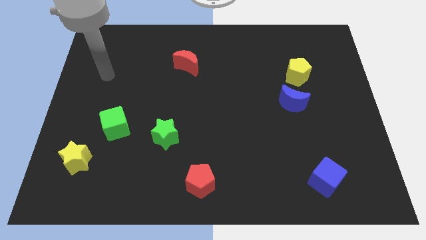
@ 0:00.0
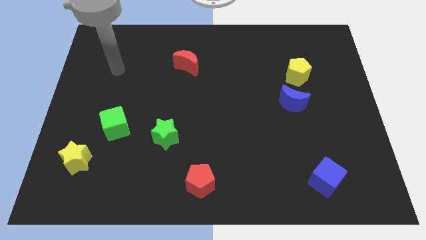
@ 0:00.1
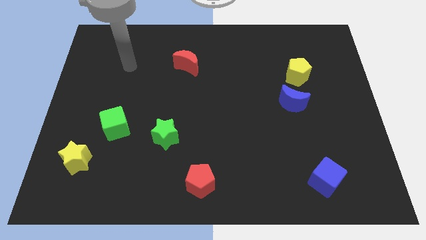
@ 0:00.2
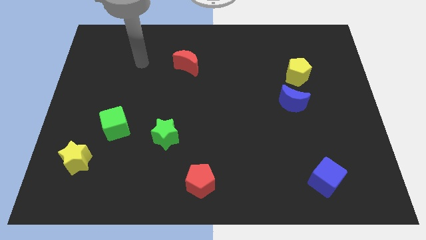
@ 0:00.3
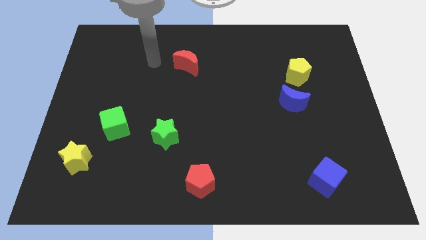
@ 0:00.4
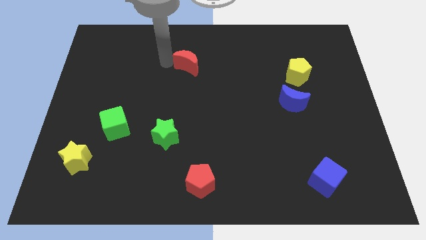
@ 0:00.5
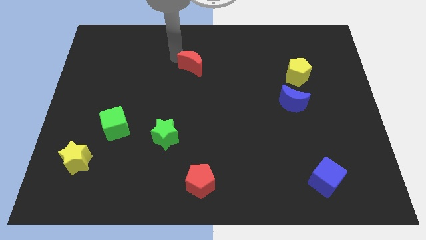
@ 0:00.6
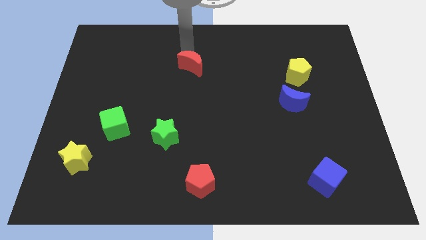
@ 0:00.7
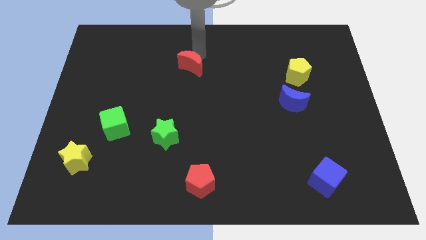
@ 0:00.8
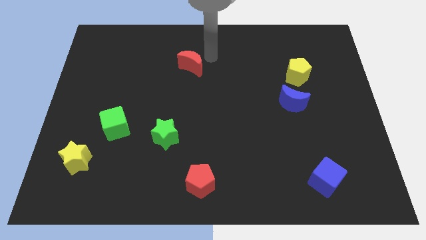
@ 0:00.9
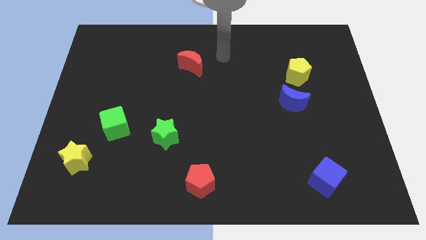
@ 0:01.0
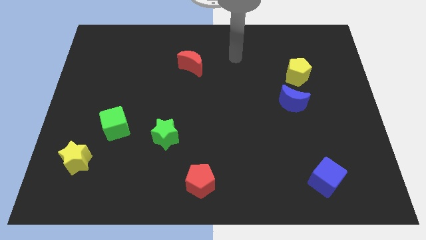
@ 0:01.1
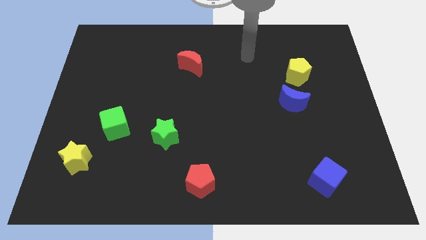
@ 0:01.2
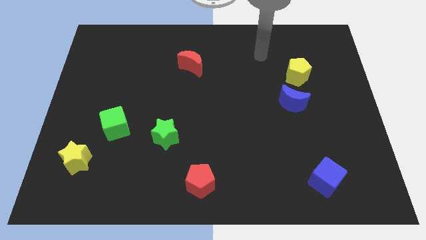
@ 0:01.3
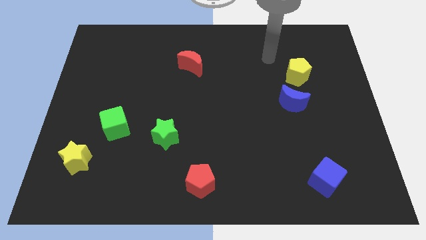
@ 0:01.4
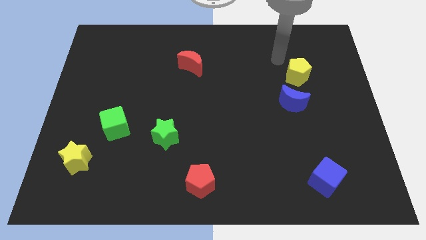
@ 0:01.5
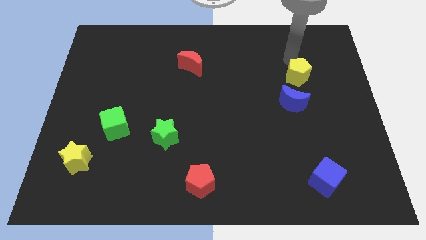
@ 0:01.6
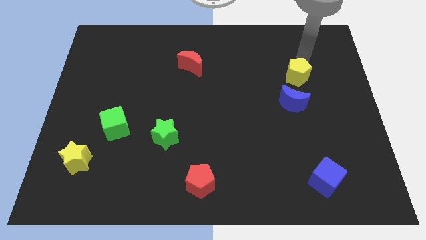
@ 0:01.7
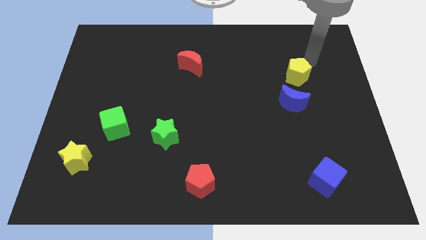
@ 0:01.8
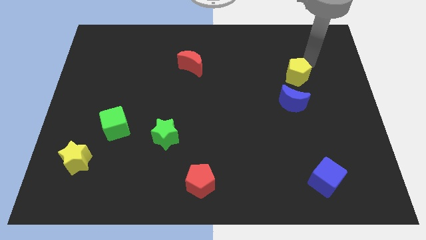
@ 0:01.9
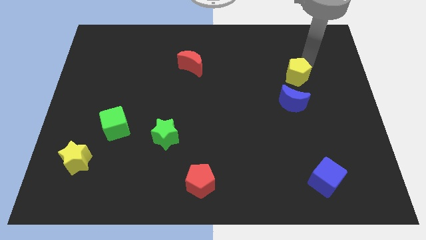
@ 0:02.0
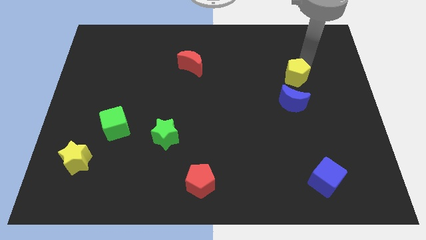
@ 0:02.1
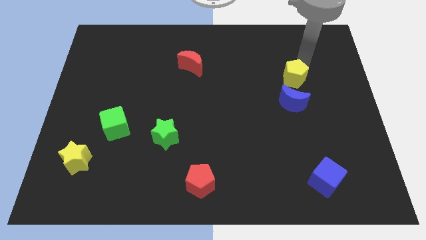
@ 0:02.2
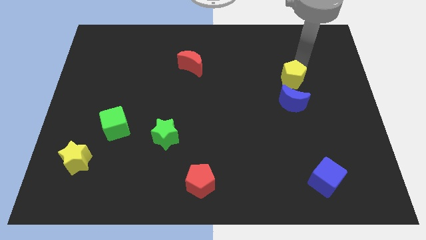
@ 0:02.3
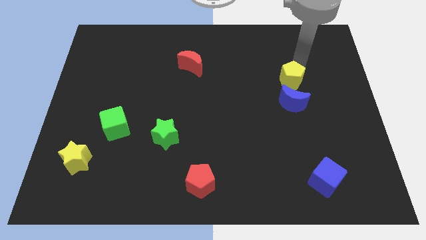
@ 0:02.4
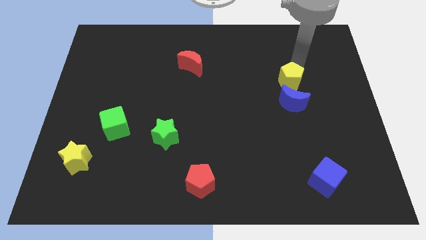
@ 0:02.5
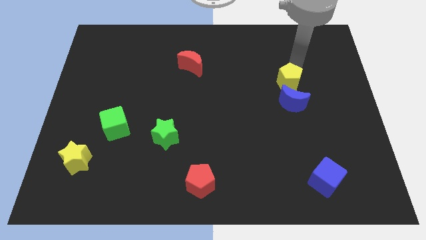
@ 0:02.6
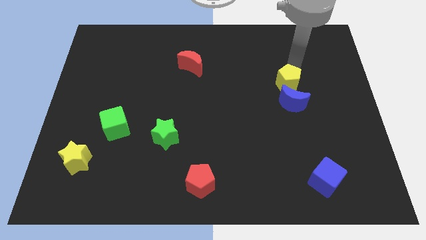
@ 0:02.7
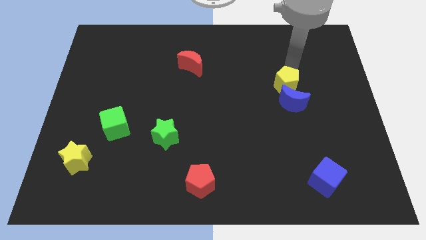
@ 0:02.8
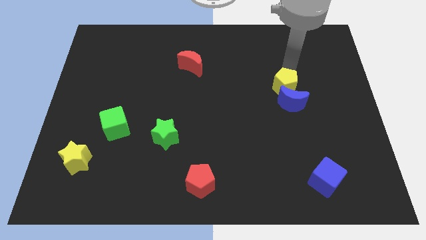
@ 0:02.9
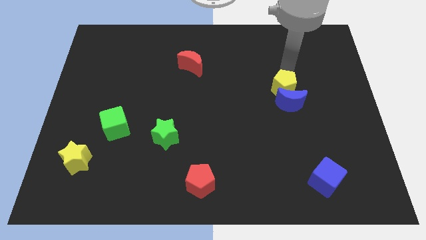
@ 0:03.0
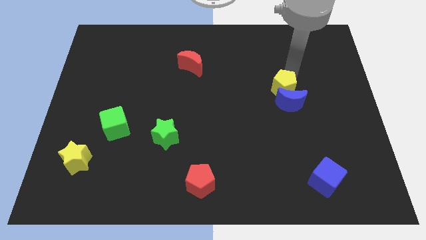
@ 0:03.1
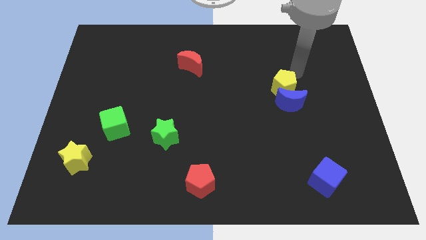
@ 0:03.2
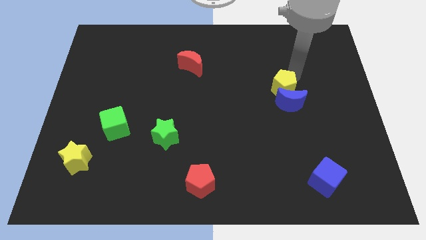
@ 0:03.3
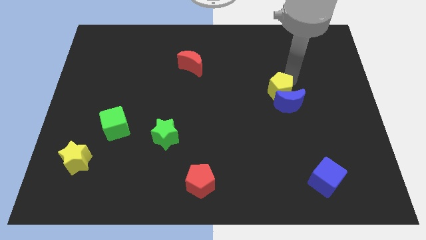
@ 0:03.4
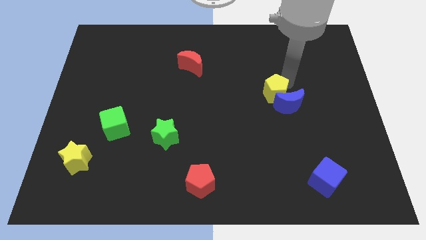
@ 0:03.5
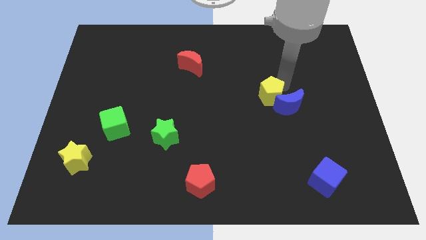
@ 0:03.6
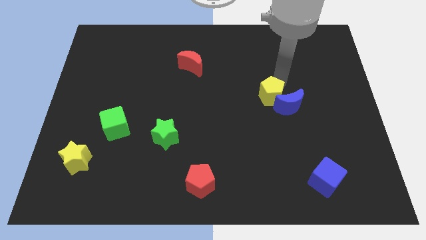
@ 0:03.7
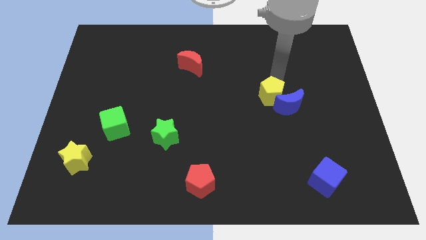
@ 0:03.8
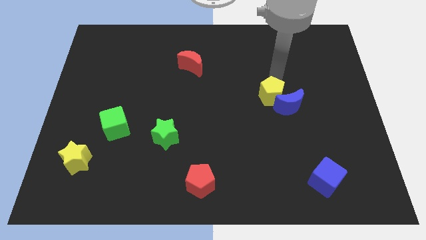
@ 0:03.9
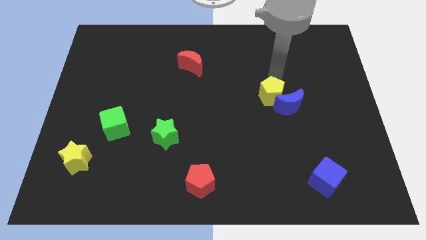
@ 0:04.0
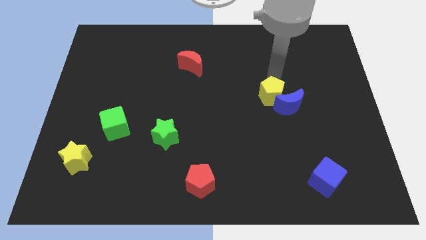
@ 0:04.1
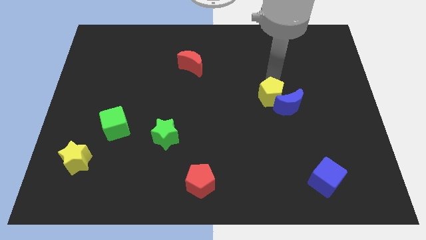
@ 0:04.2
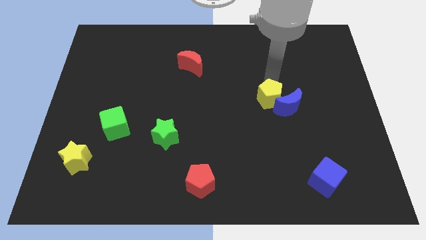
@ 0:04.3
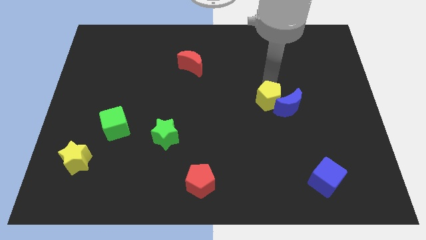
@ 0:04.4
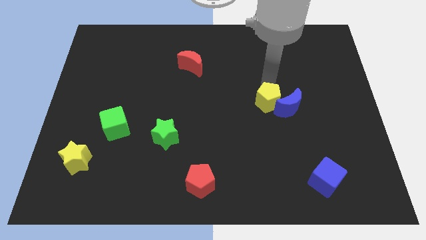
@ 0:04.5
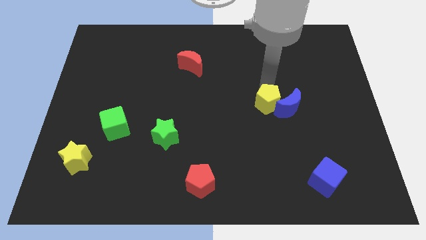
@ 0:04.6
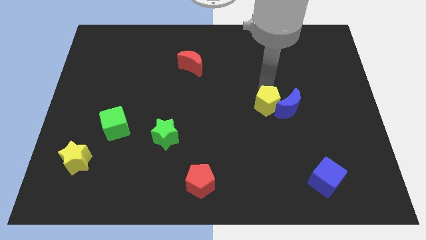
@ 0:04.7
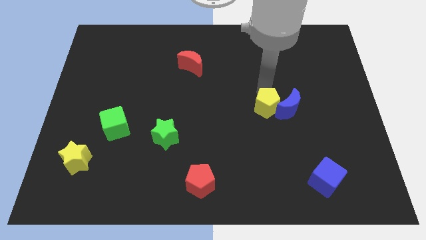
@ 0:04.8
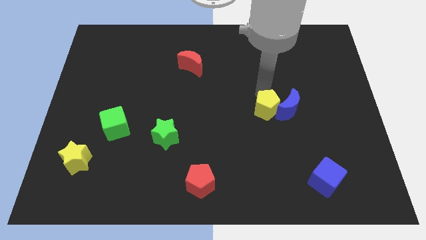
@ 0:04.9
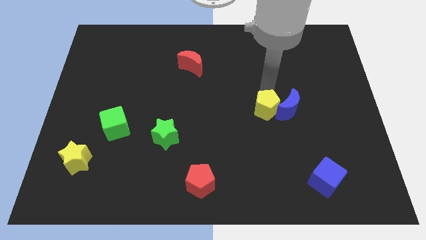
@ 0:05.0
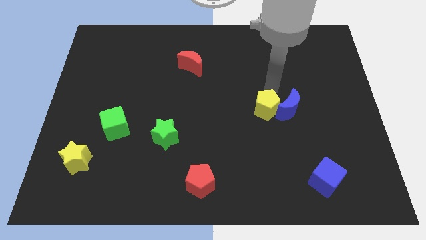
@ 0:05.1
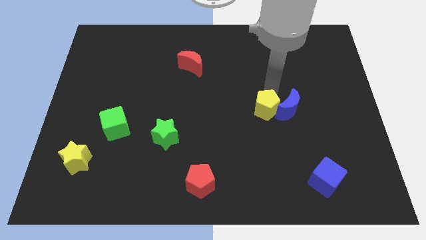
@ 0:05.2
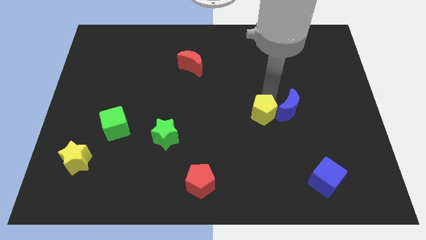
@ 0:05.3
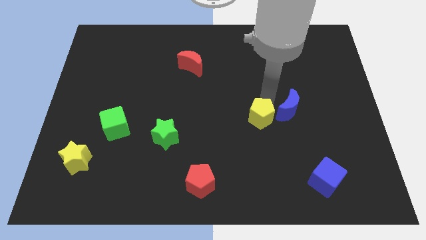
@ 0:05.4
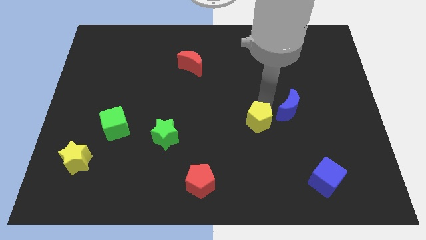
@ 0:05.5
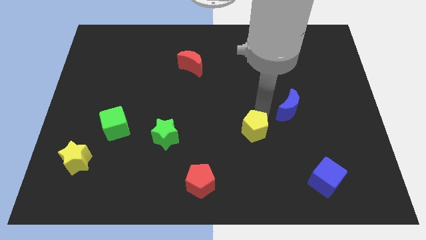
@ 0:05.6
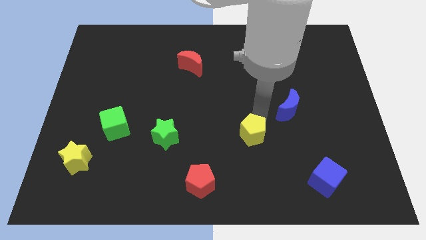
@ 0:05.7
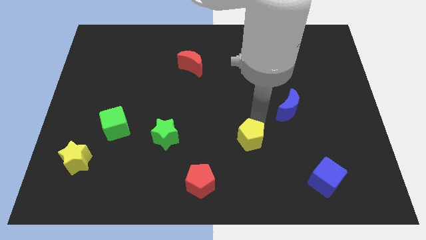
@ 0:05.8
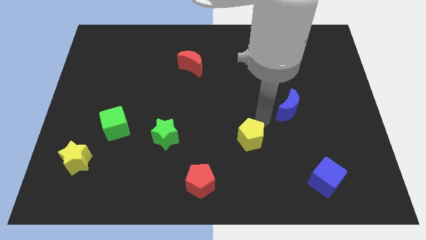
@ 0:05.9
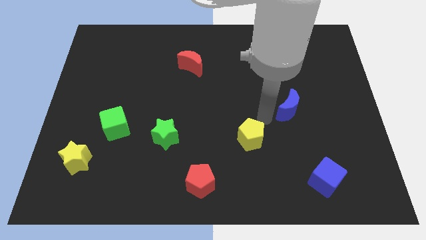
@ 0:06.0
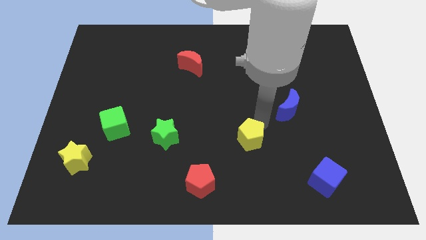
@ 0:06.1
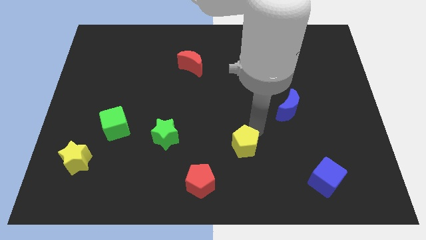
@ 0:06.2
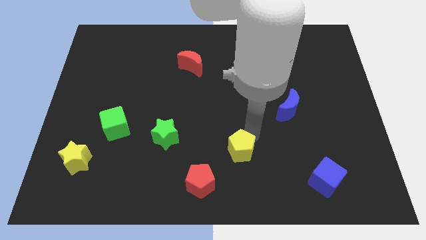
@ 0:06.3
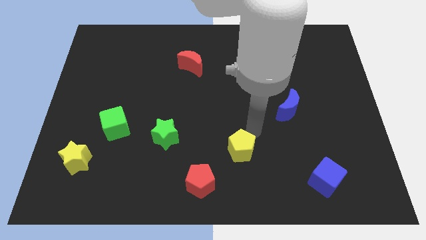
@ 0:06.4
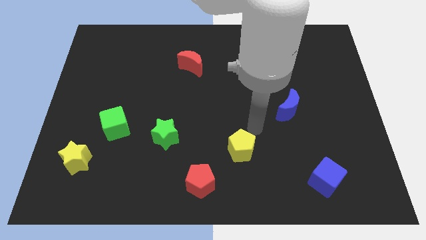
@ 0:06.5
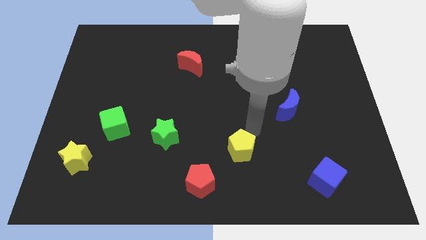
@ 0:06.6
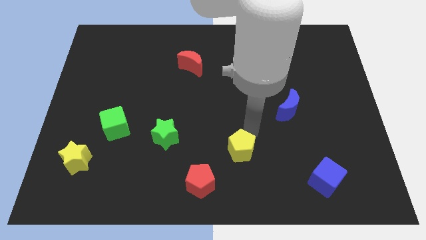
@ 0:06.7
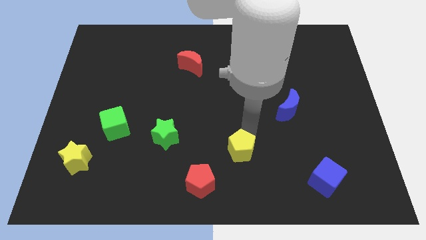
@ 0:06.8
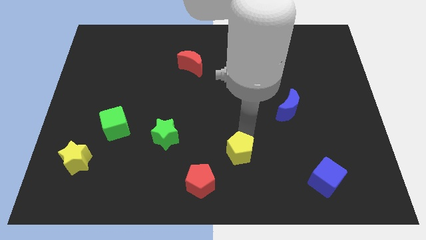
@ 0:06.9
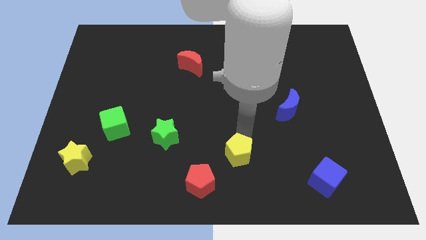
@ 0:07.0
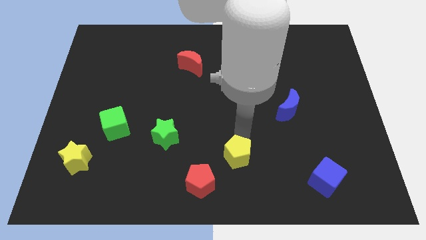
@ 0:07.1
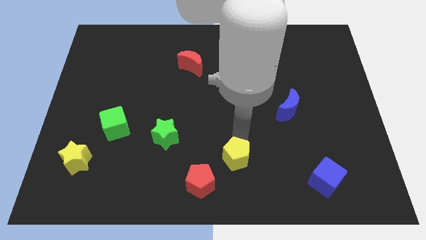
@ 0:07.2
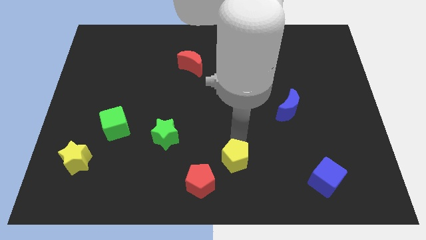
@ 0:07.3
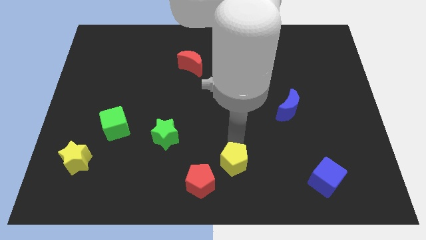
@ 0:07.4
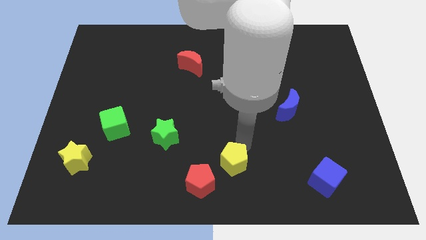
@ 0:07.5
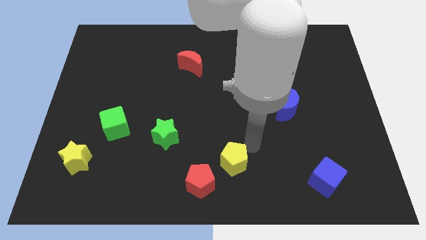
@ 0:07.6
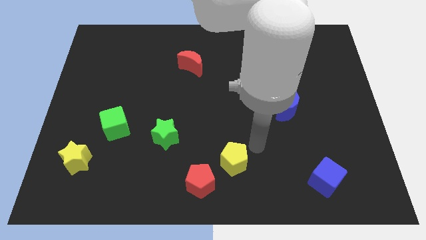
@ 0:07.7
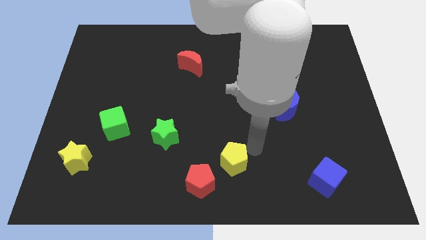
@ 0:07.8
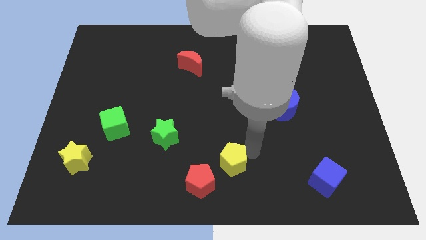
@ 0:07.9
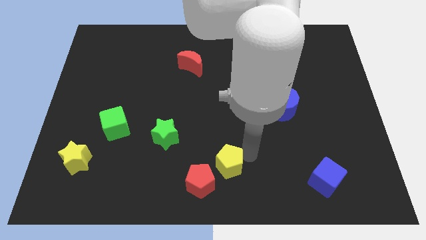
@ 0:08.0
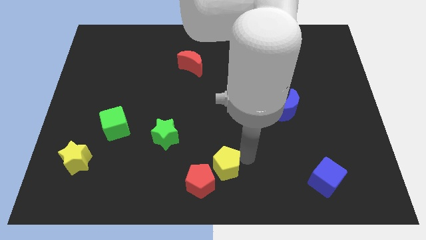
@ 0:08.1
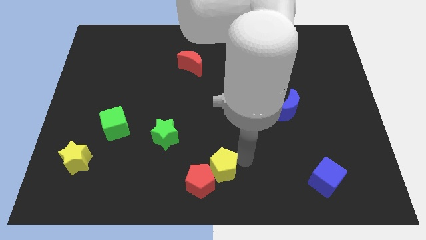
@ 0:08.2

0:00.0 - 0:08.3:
slide the yellow pentagon towards the red pentagon
